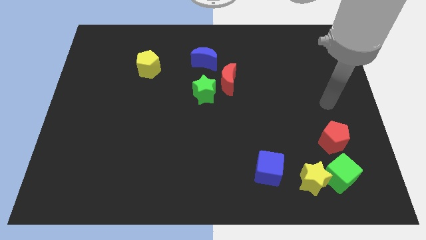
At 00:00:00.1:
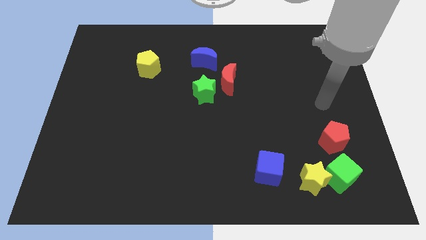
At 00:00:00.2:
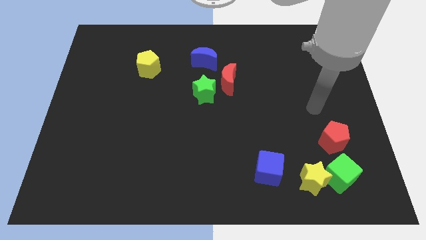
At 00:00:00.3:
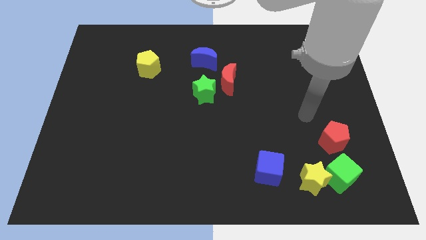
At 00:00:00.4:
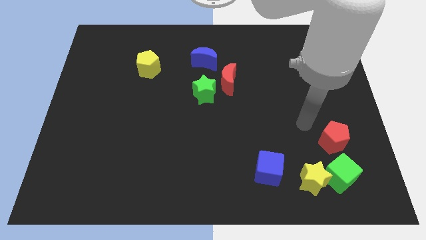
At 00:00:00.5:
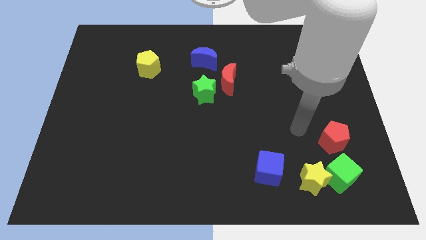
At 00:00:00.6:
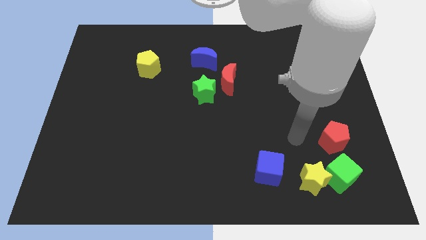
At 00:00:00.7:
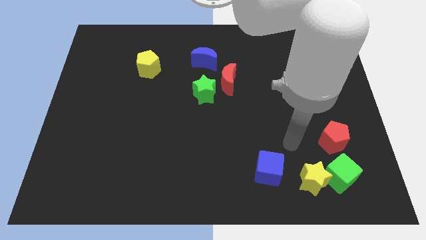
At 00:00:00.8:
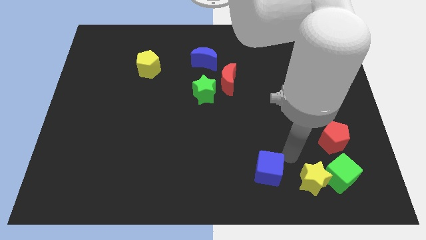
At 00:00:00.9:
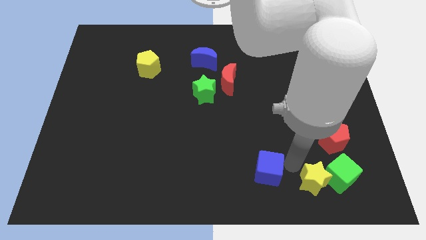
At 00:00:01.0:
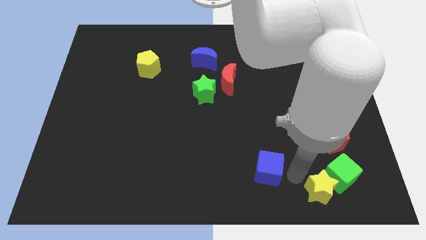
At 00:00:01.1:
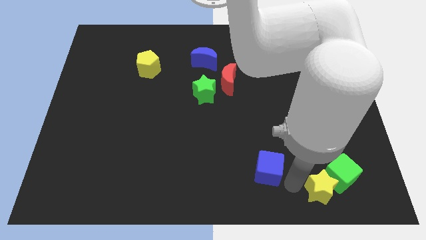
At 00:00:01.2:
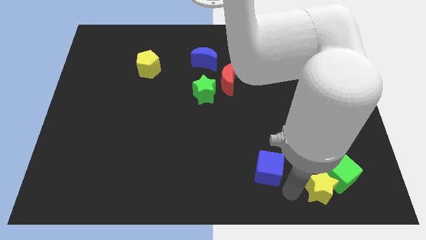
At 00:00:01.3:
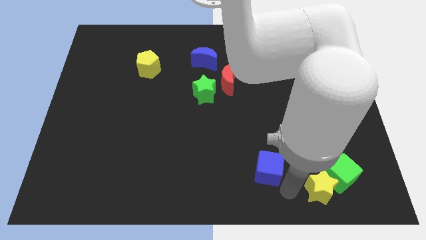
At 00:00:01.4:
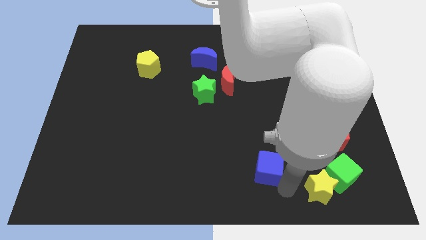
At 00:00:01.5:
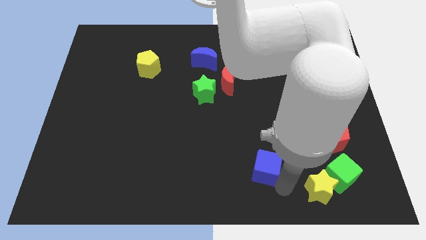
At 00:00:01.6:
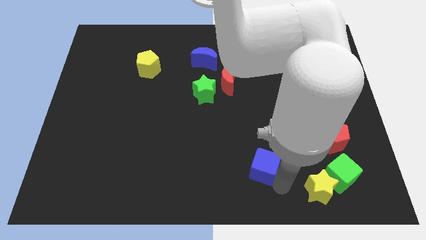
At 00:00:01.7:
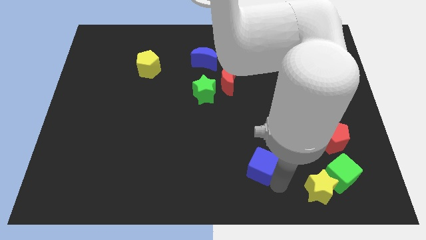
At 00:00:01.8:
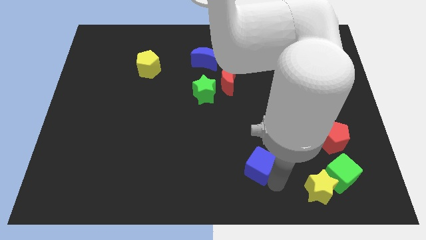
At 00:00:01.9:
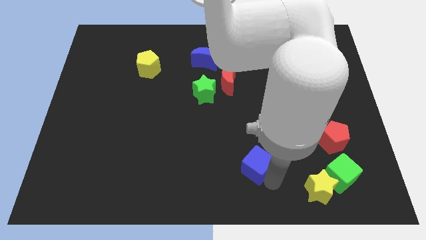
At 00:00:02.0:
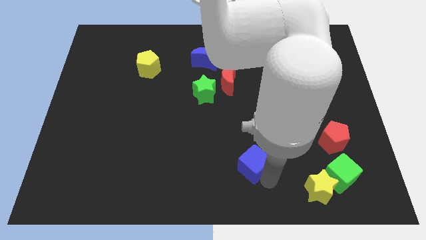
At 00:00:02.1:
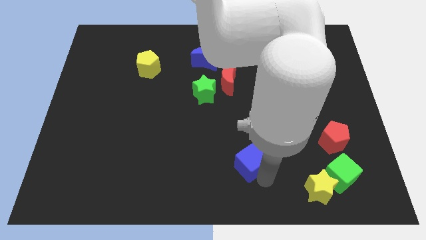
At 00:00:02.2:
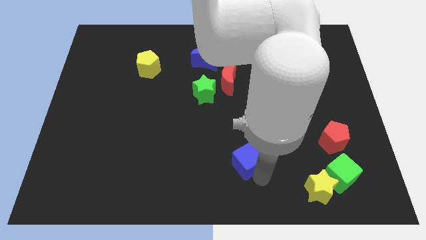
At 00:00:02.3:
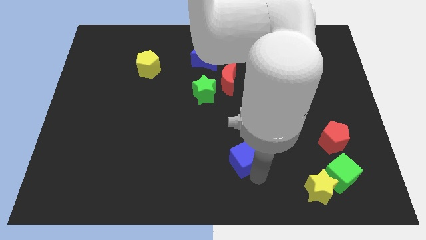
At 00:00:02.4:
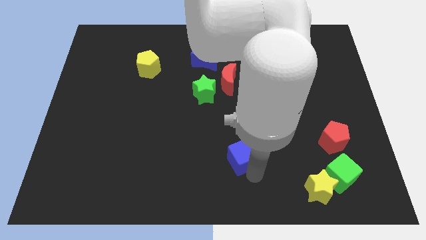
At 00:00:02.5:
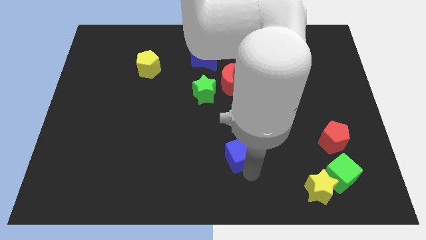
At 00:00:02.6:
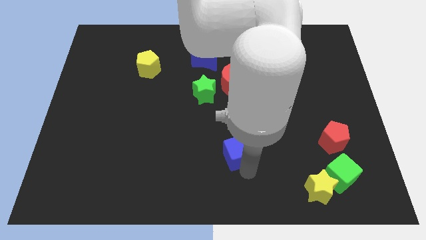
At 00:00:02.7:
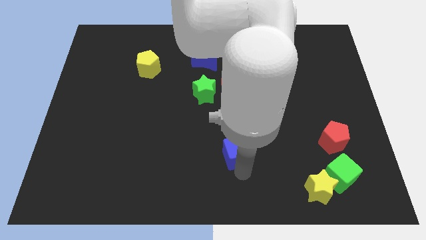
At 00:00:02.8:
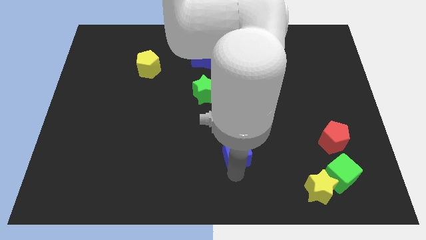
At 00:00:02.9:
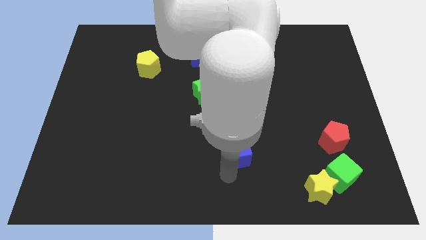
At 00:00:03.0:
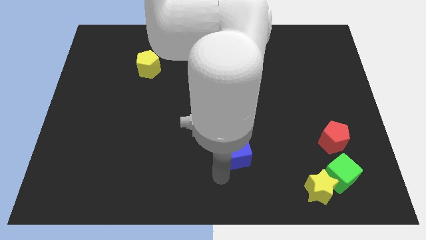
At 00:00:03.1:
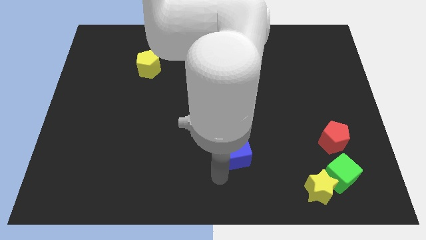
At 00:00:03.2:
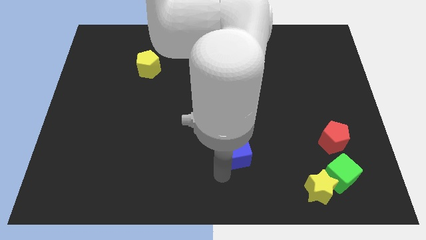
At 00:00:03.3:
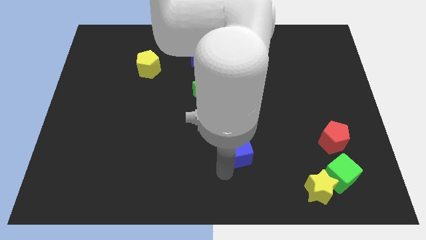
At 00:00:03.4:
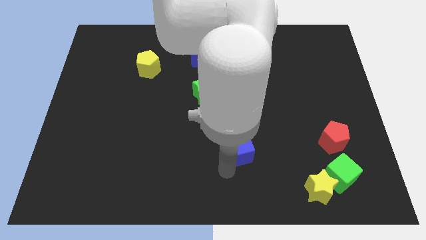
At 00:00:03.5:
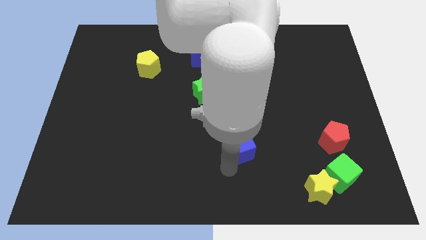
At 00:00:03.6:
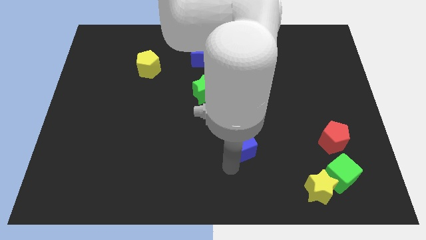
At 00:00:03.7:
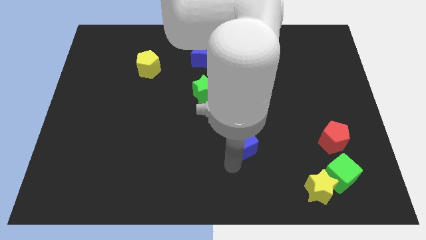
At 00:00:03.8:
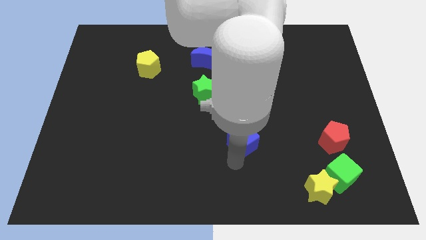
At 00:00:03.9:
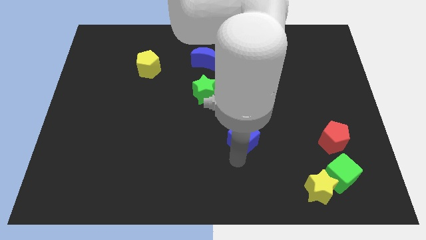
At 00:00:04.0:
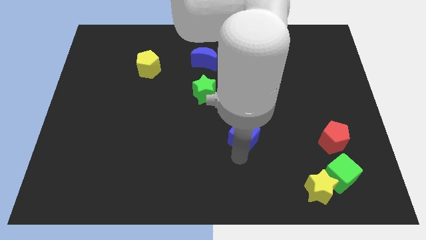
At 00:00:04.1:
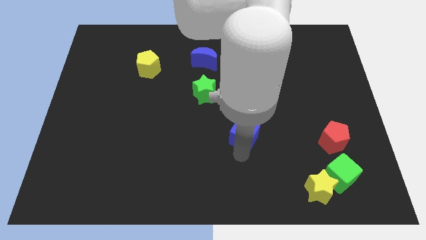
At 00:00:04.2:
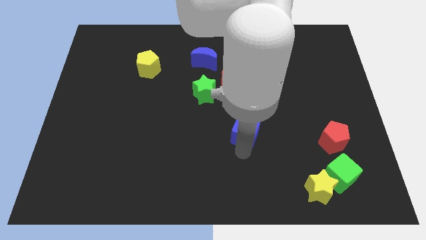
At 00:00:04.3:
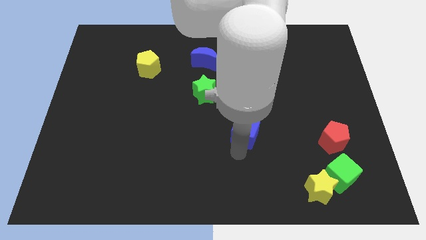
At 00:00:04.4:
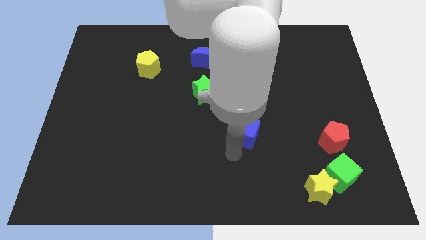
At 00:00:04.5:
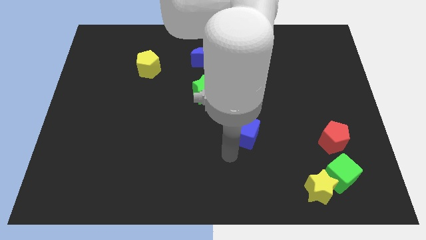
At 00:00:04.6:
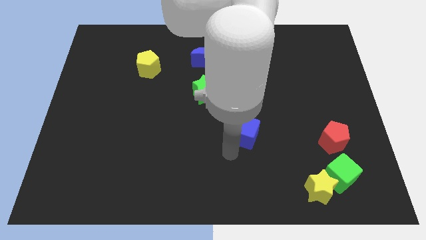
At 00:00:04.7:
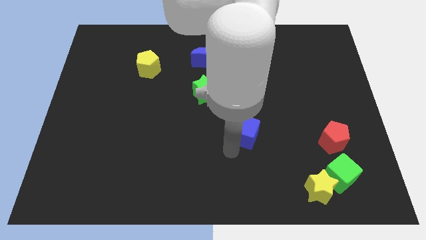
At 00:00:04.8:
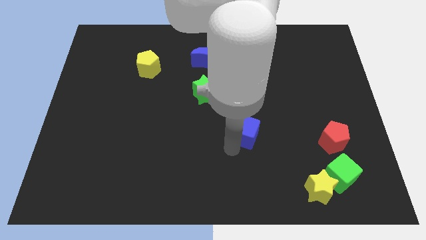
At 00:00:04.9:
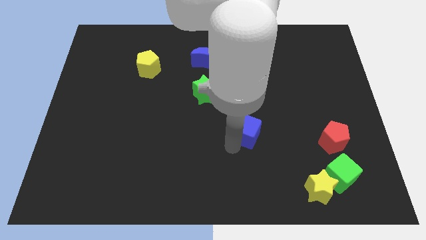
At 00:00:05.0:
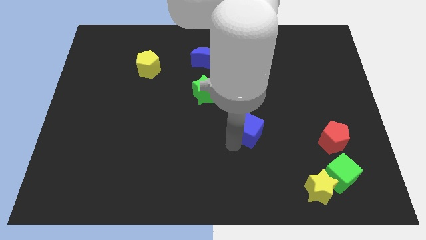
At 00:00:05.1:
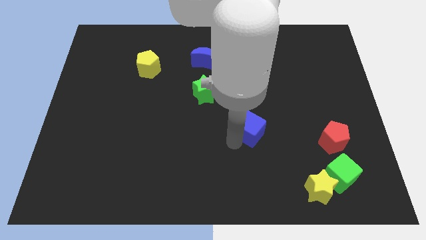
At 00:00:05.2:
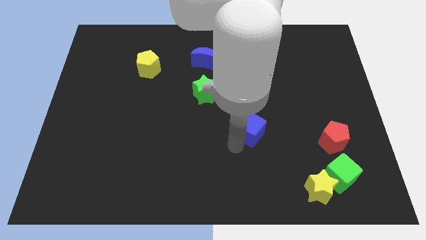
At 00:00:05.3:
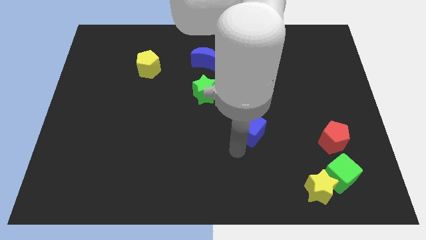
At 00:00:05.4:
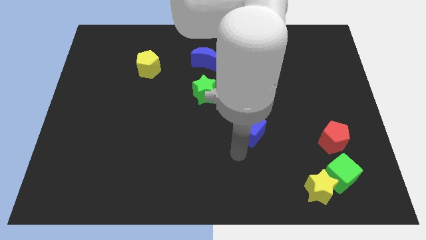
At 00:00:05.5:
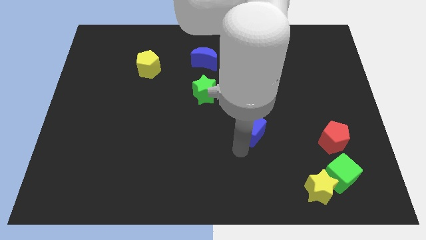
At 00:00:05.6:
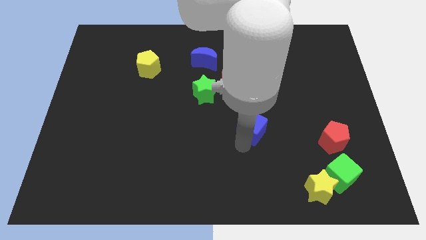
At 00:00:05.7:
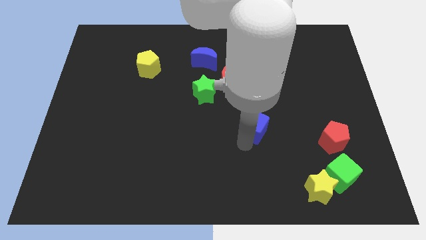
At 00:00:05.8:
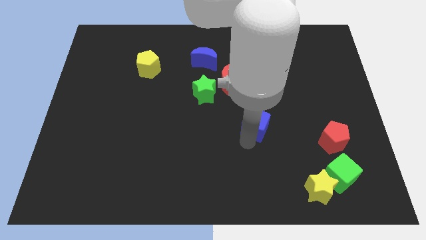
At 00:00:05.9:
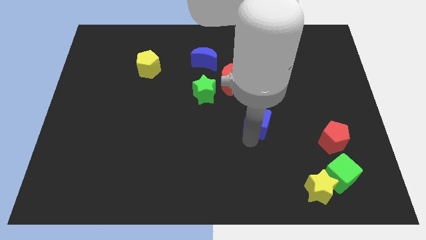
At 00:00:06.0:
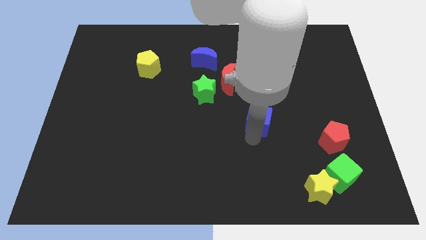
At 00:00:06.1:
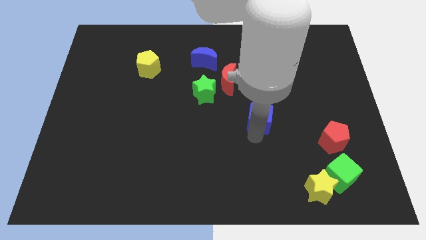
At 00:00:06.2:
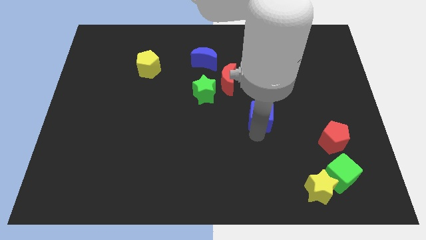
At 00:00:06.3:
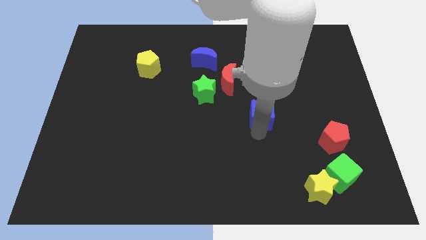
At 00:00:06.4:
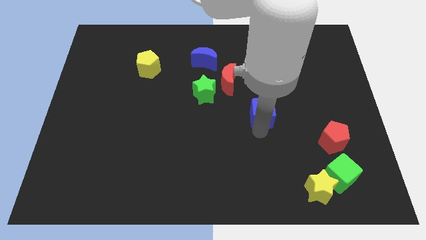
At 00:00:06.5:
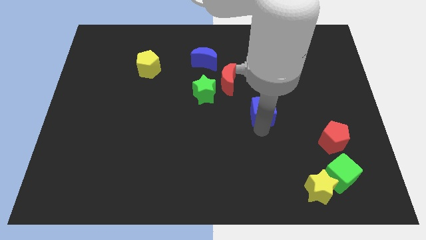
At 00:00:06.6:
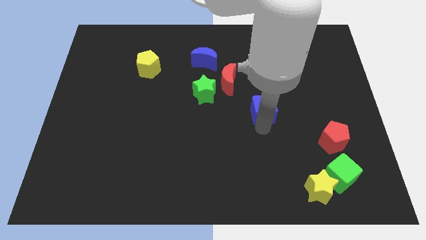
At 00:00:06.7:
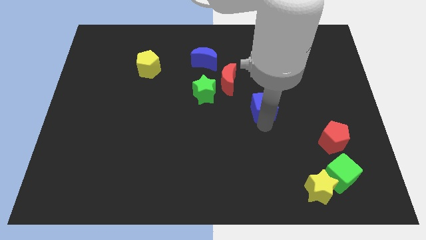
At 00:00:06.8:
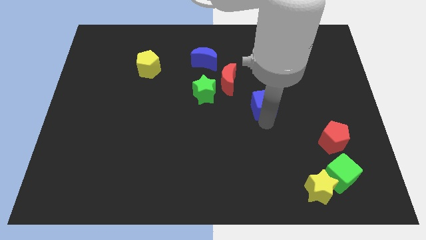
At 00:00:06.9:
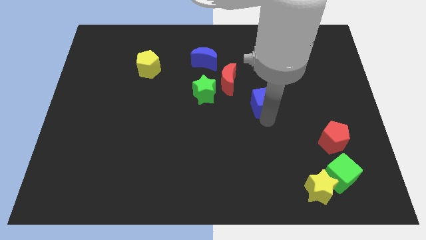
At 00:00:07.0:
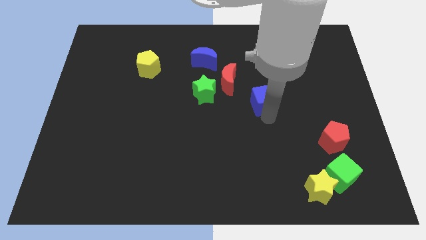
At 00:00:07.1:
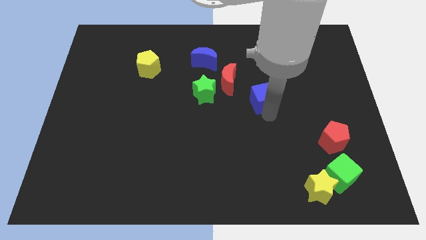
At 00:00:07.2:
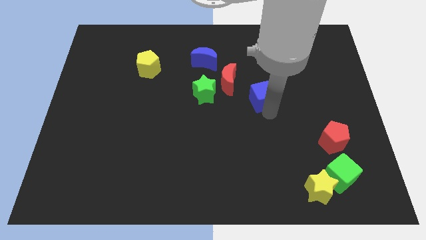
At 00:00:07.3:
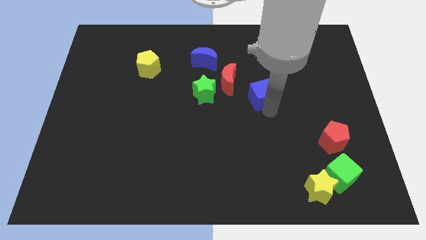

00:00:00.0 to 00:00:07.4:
move the blue cube upwards

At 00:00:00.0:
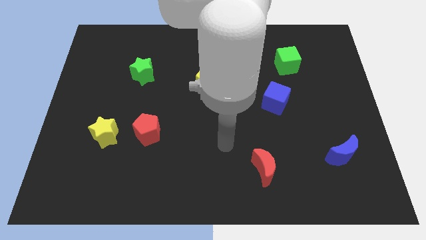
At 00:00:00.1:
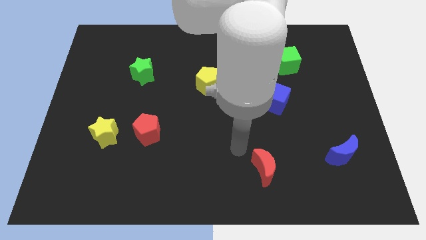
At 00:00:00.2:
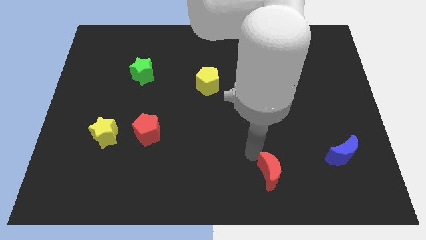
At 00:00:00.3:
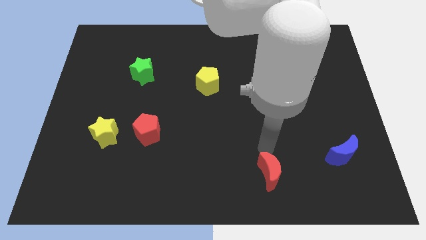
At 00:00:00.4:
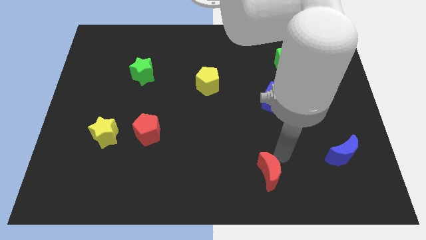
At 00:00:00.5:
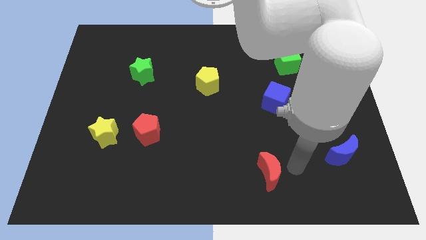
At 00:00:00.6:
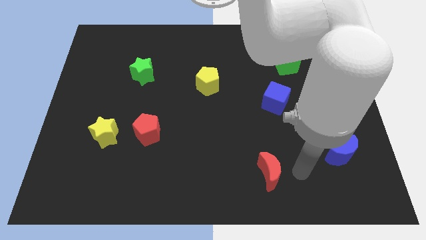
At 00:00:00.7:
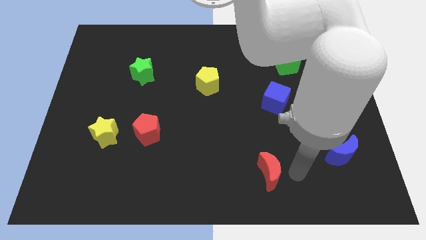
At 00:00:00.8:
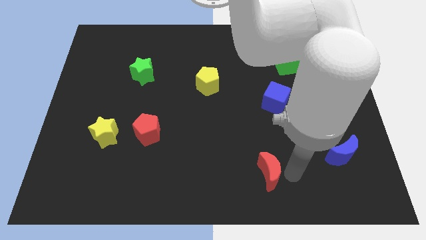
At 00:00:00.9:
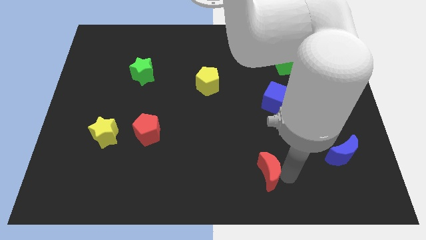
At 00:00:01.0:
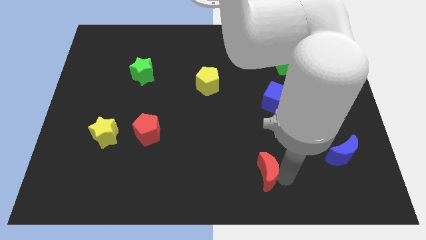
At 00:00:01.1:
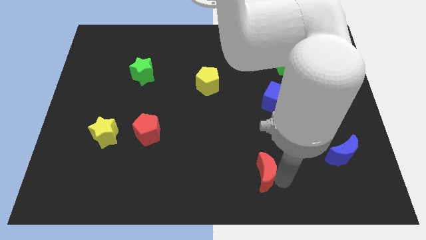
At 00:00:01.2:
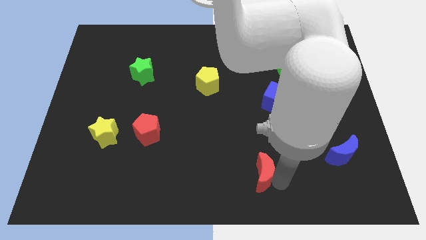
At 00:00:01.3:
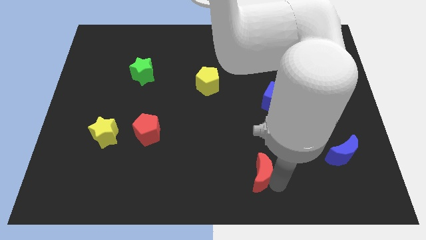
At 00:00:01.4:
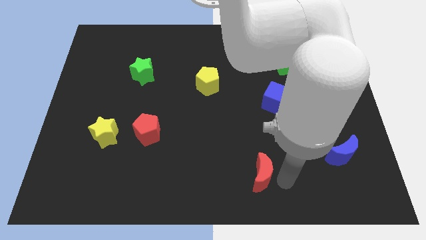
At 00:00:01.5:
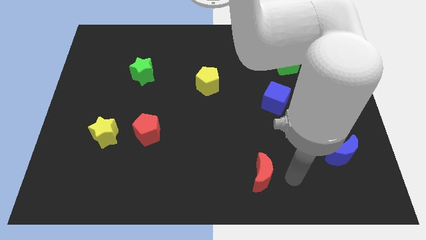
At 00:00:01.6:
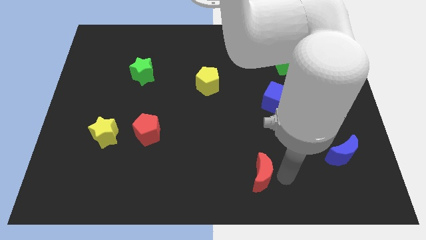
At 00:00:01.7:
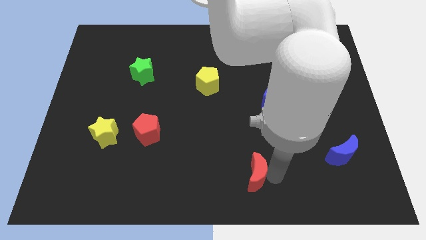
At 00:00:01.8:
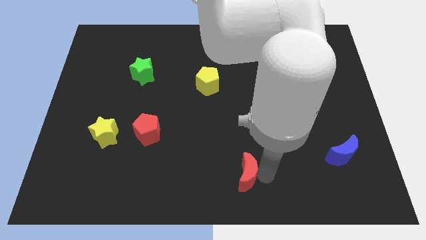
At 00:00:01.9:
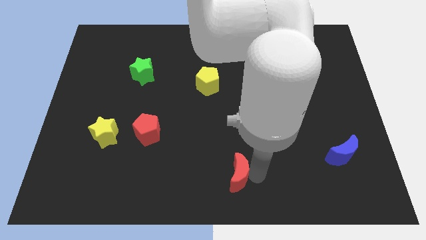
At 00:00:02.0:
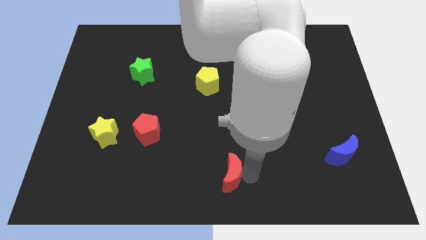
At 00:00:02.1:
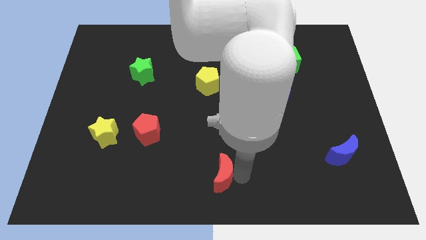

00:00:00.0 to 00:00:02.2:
move the red moon left a bit
